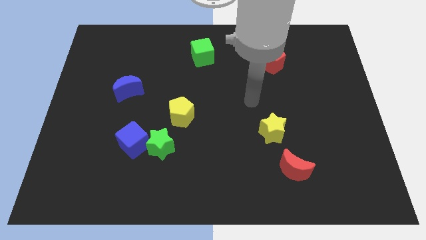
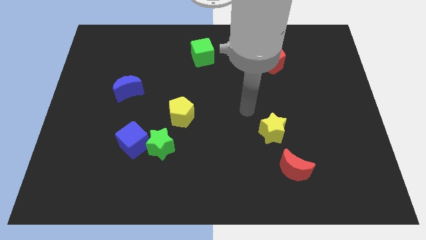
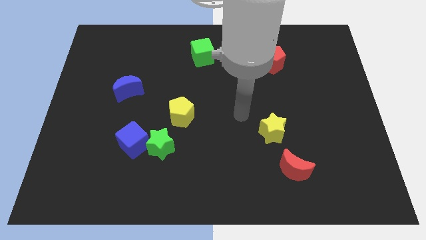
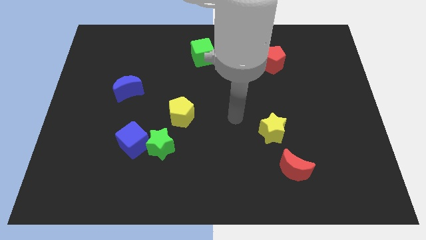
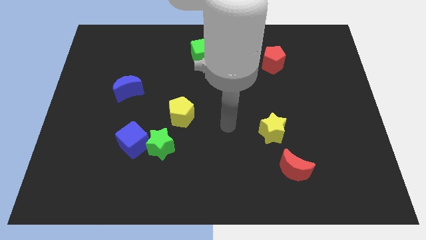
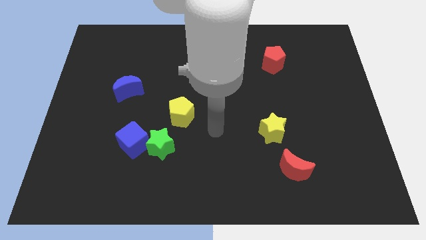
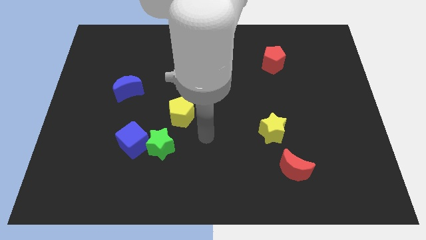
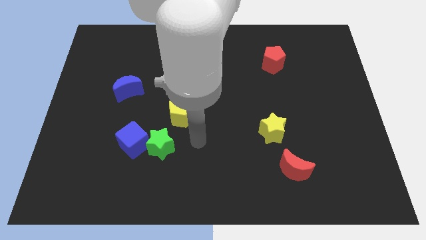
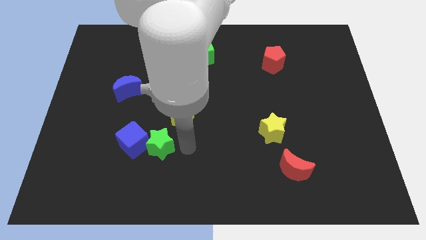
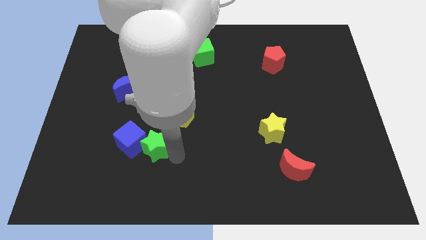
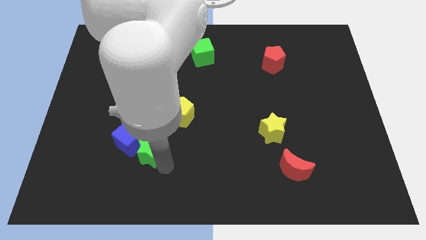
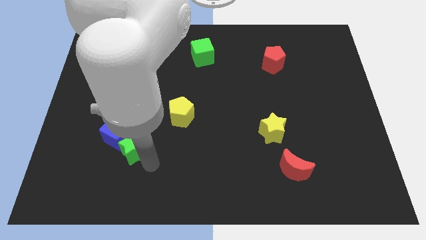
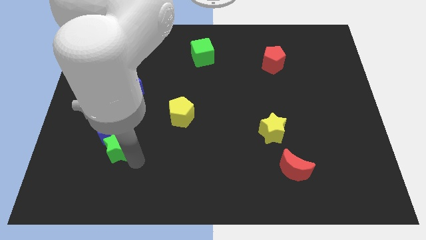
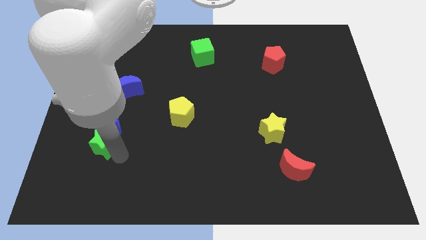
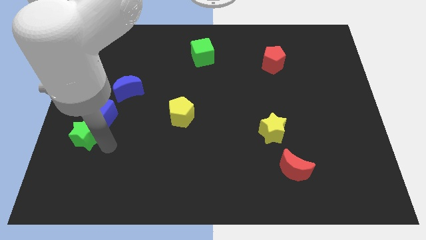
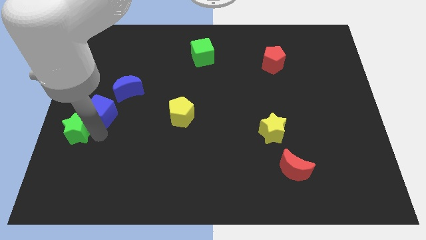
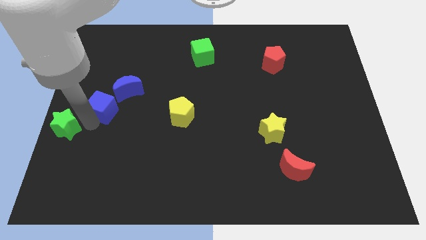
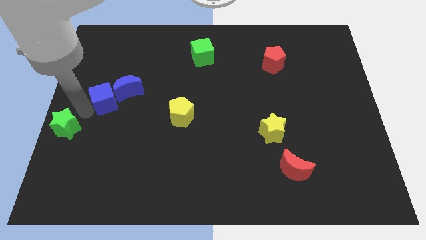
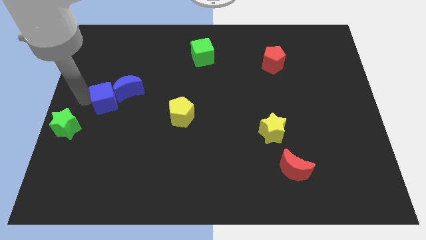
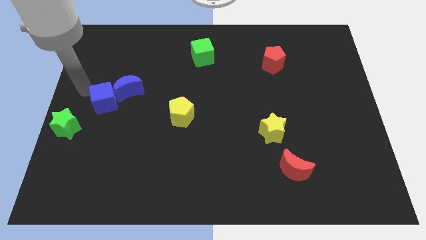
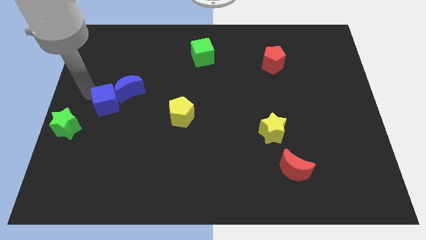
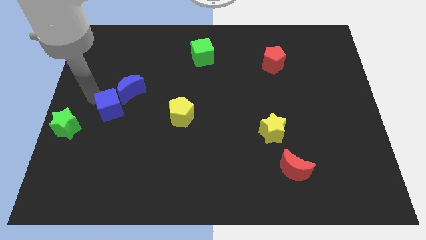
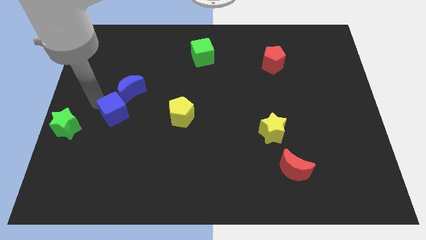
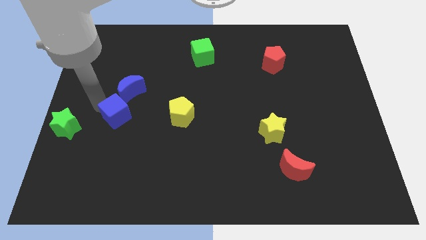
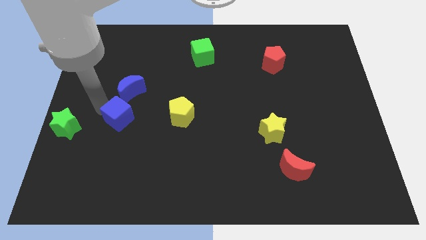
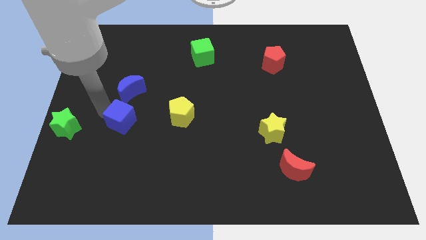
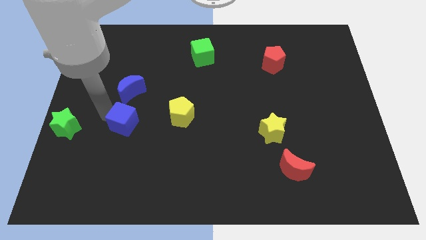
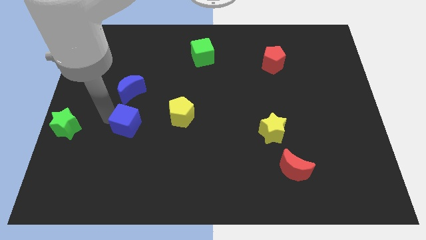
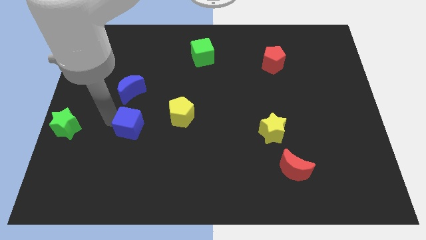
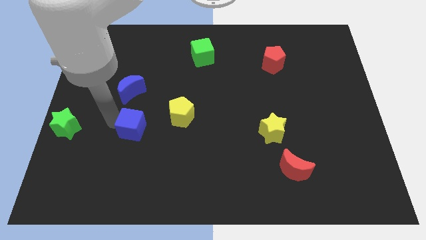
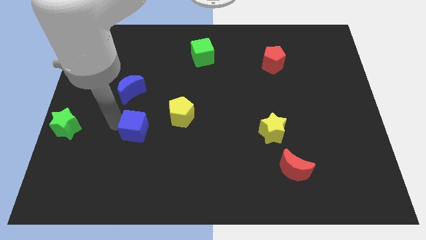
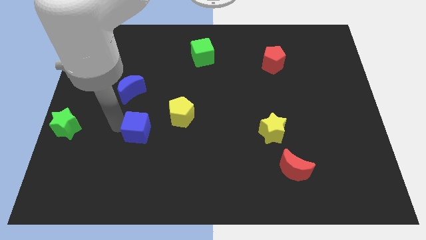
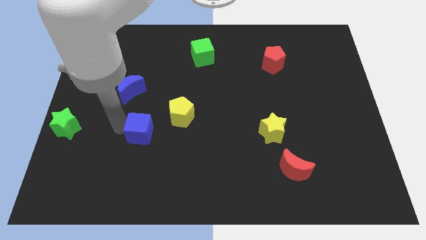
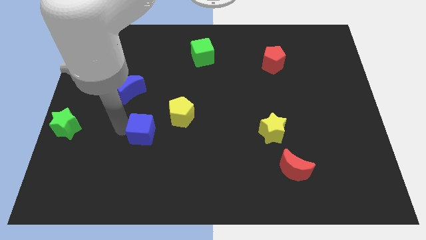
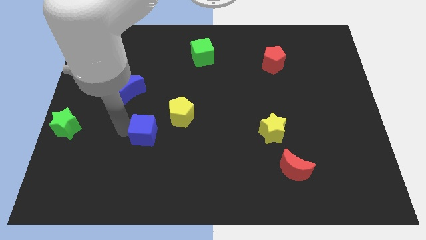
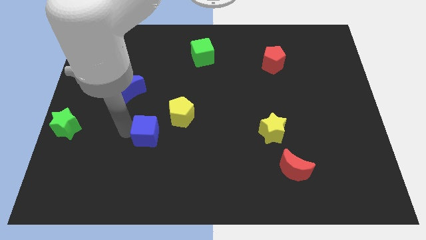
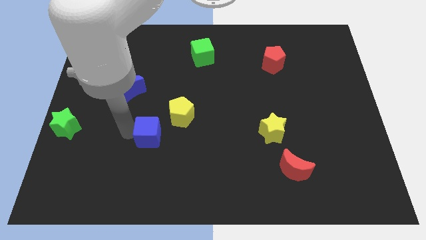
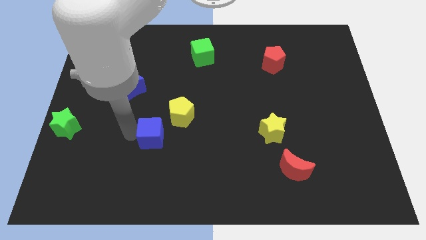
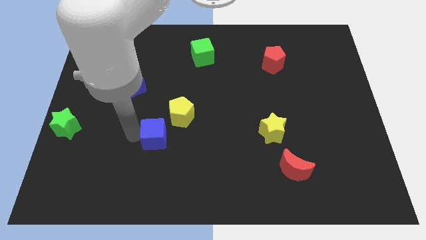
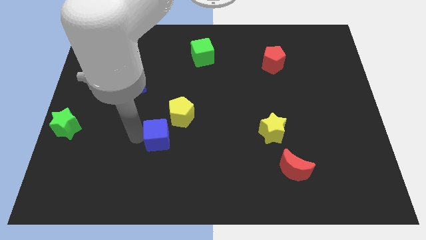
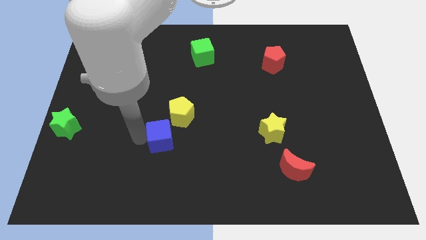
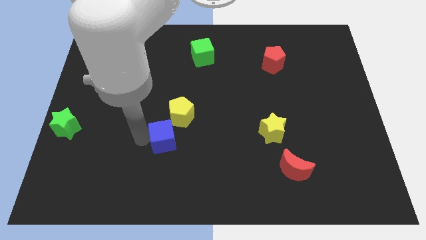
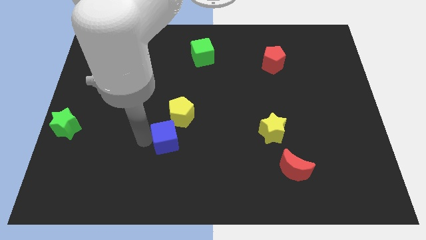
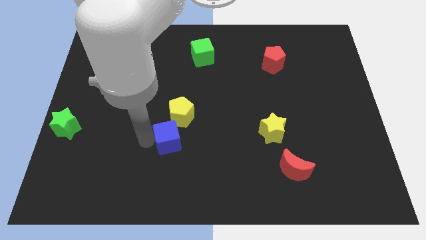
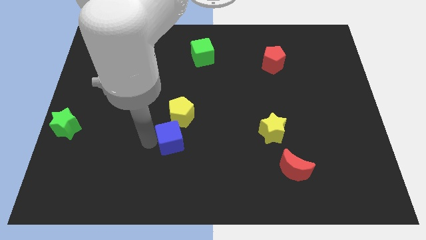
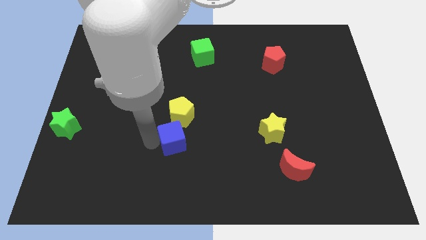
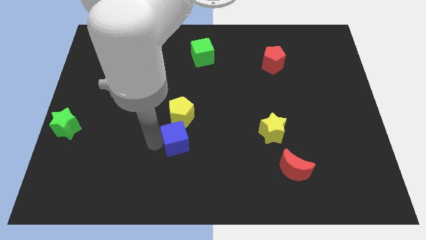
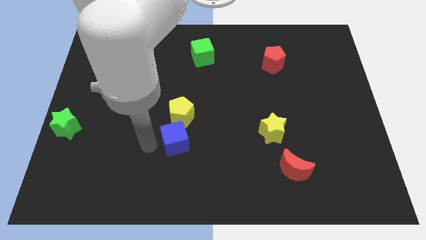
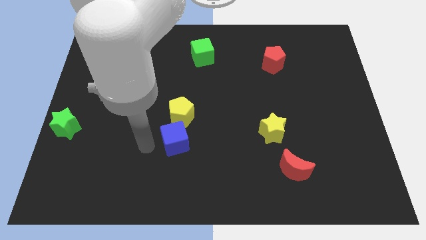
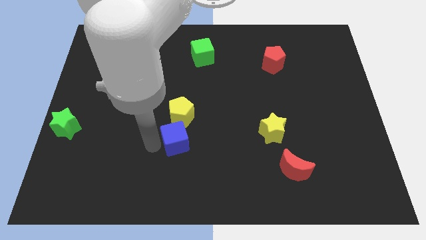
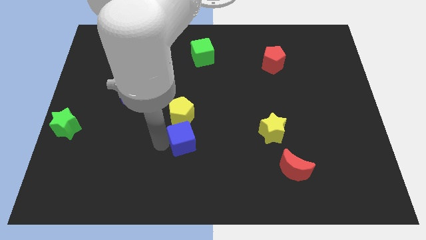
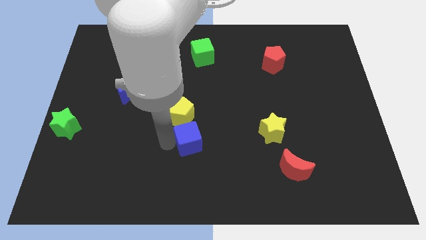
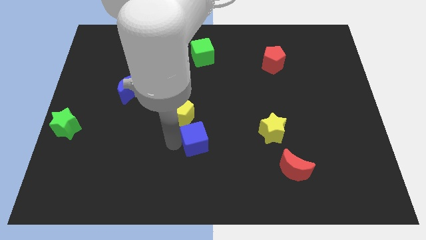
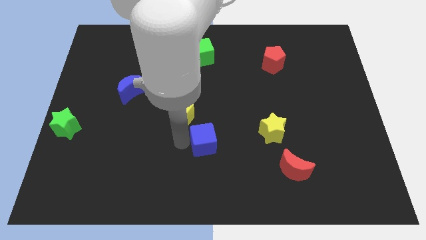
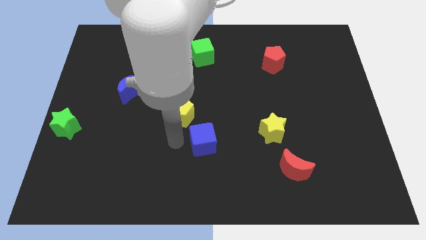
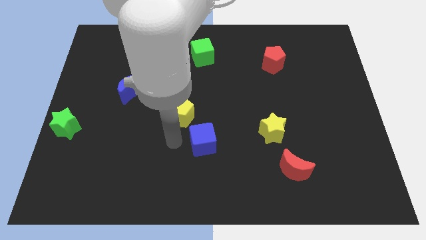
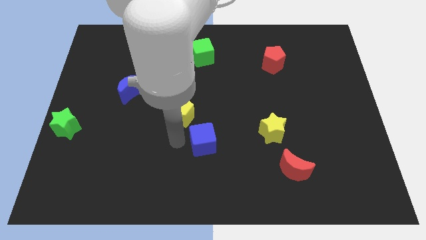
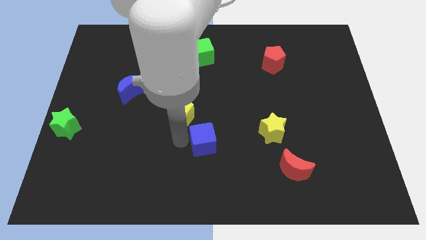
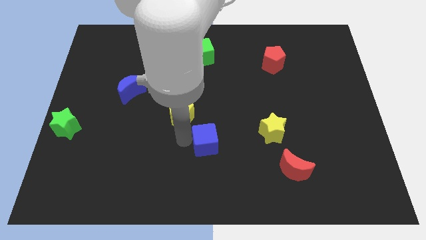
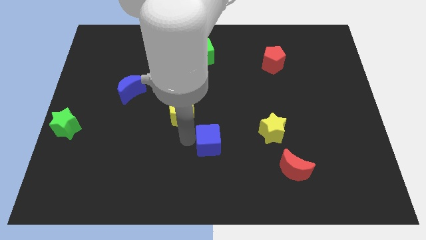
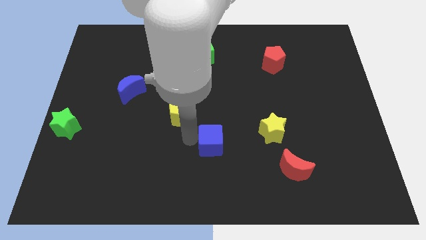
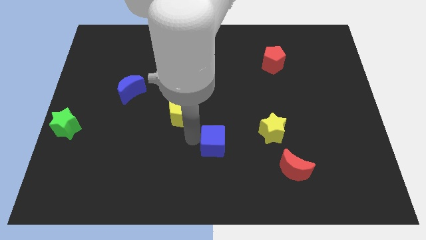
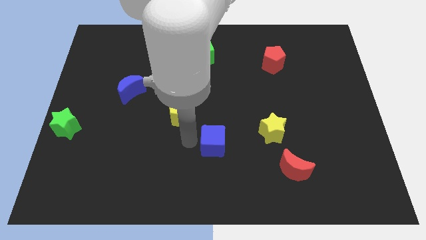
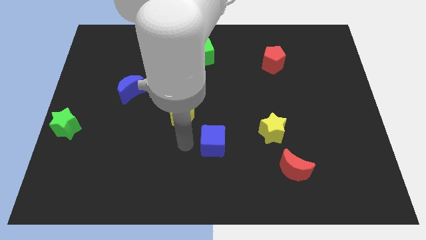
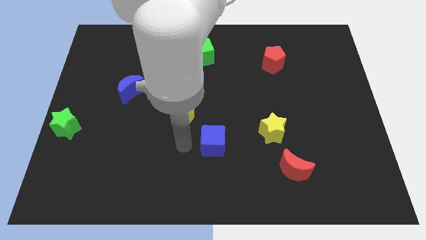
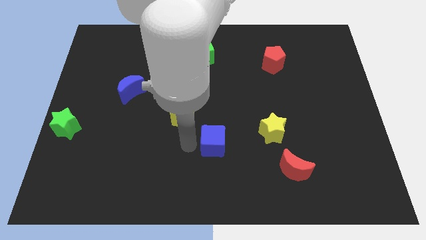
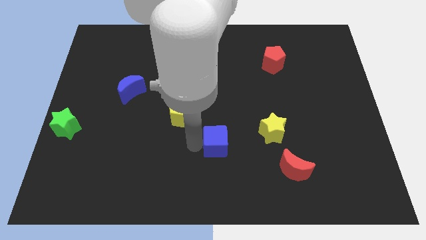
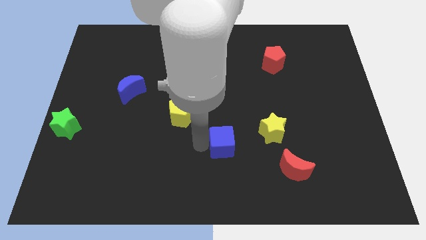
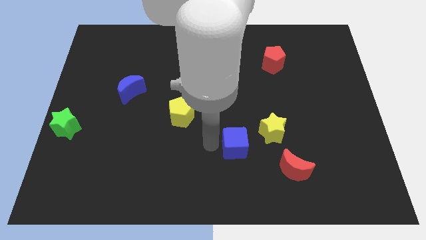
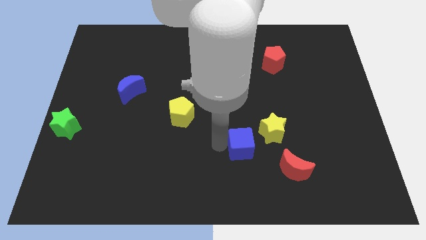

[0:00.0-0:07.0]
slide the blue cube to the top left side of the red moon
